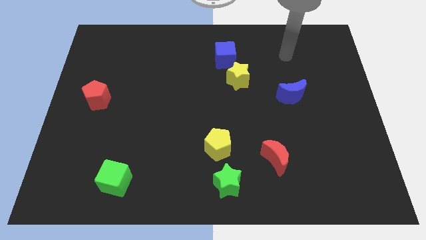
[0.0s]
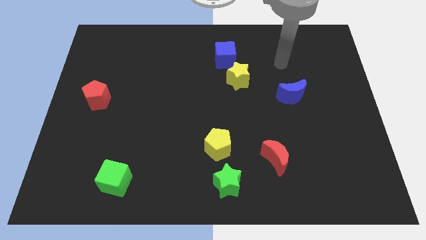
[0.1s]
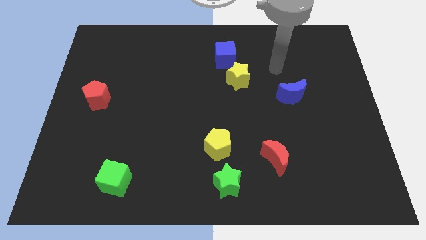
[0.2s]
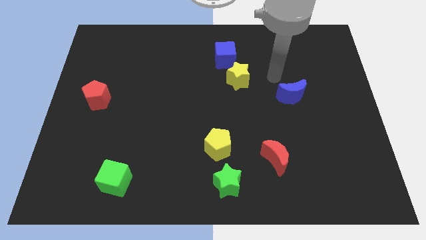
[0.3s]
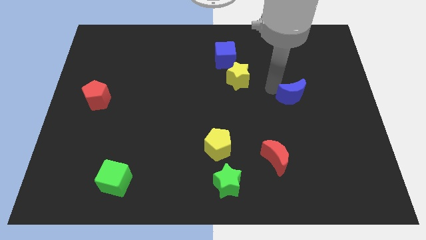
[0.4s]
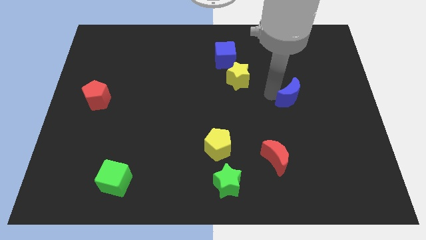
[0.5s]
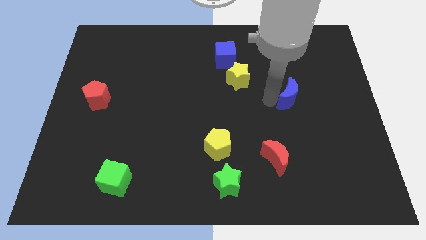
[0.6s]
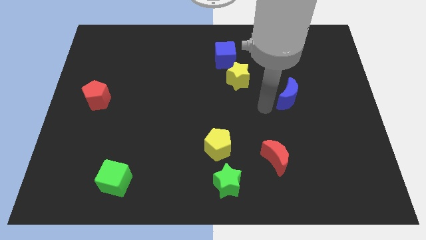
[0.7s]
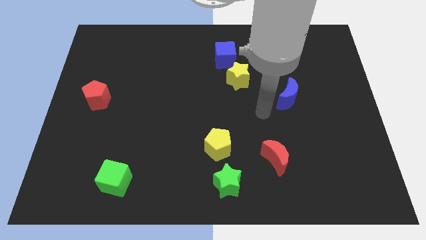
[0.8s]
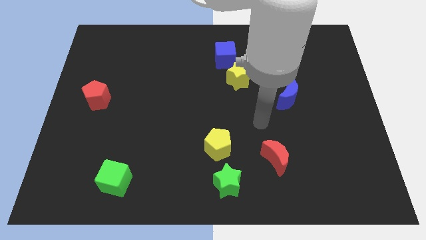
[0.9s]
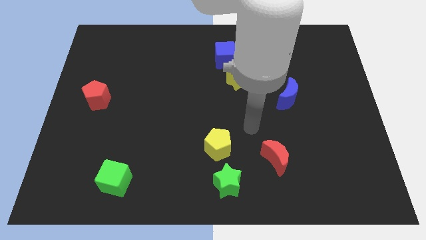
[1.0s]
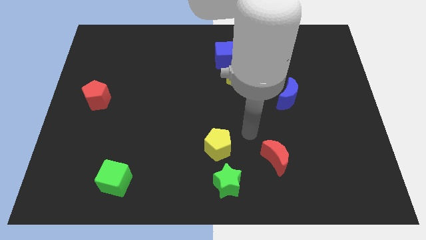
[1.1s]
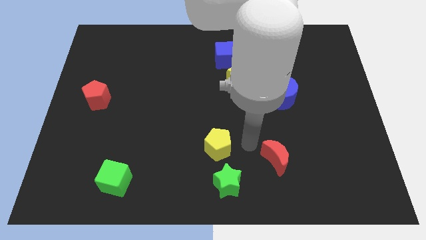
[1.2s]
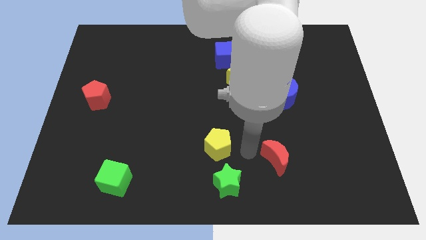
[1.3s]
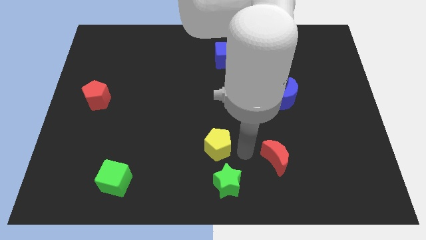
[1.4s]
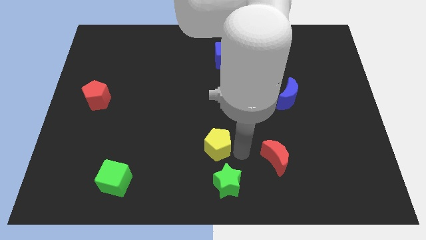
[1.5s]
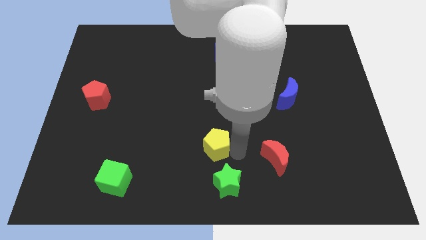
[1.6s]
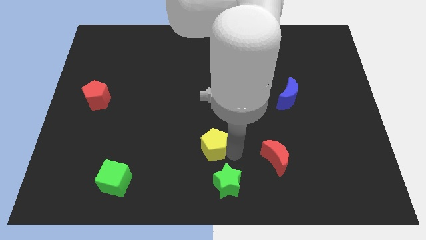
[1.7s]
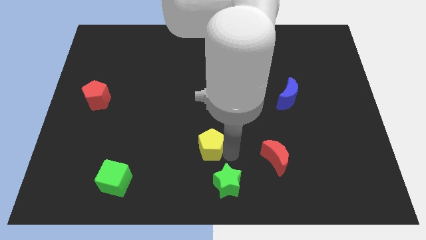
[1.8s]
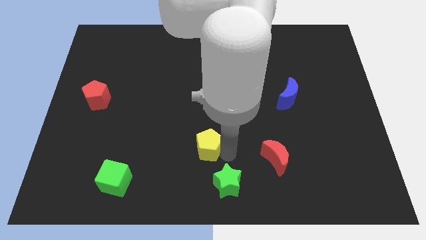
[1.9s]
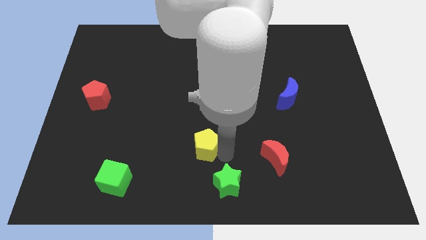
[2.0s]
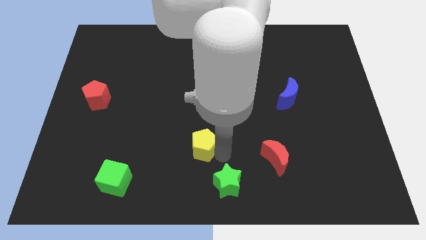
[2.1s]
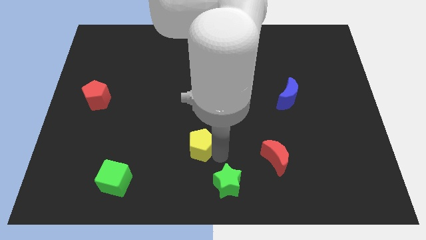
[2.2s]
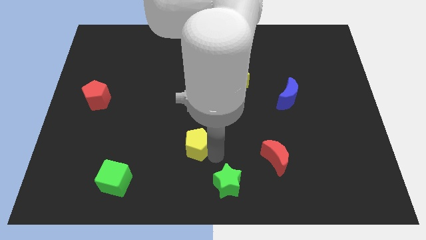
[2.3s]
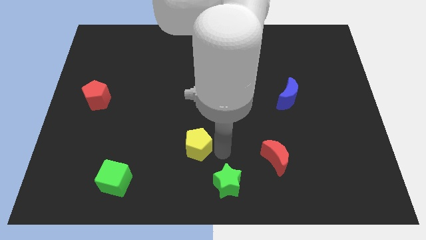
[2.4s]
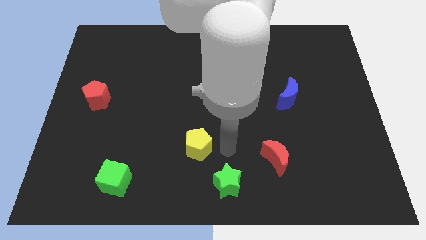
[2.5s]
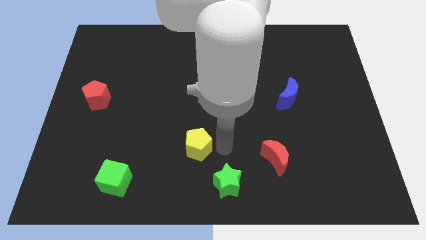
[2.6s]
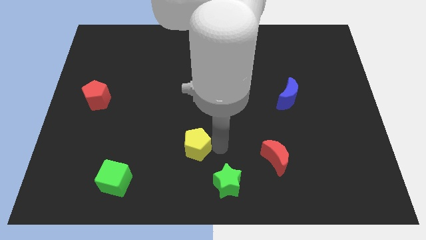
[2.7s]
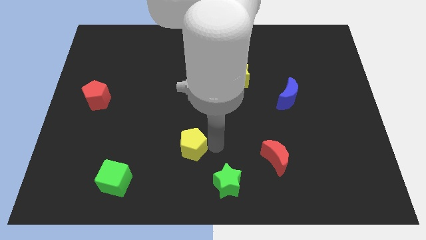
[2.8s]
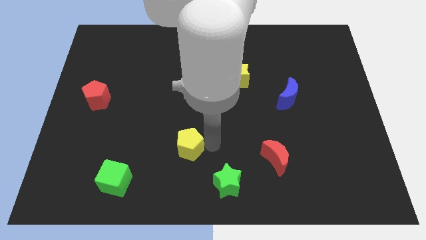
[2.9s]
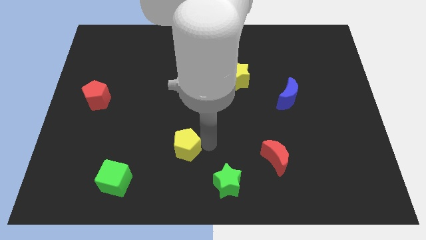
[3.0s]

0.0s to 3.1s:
slightly move the yellow pentagon left

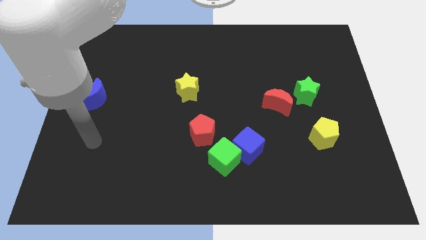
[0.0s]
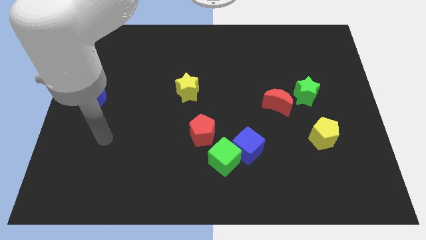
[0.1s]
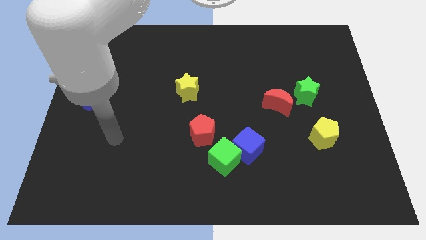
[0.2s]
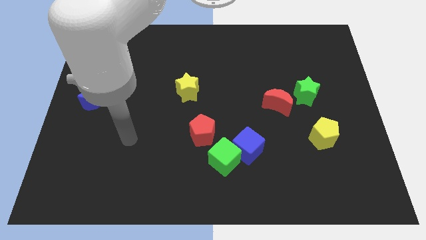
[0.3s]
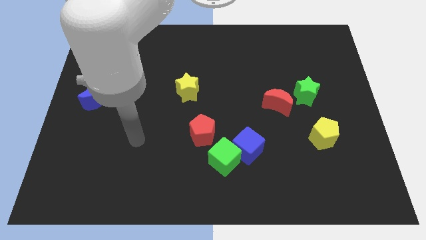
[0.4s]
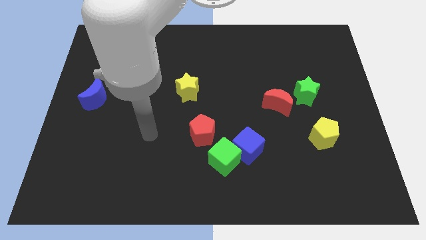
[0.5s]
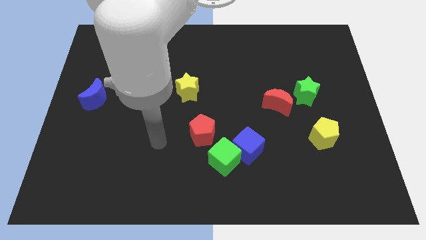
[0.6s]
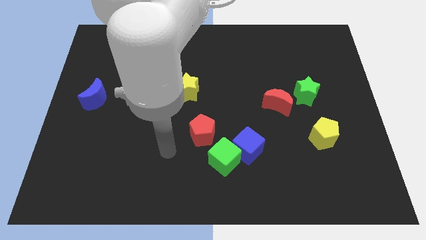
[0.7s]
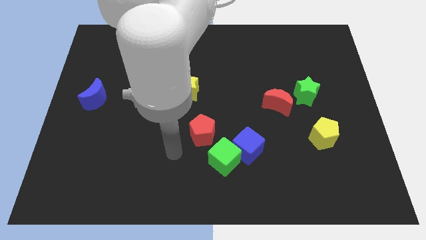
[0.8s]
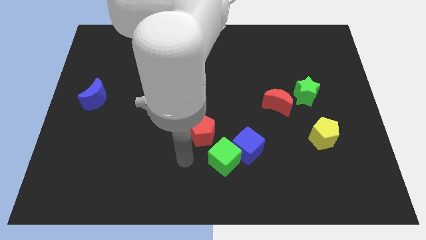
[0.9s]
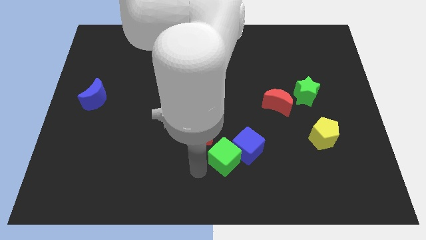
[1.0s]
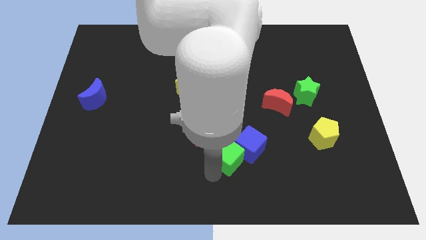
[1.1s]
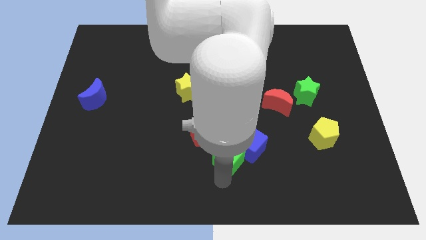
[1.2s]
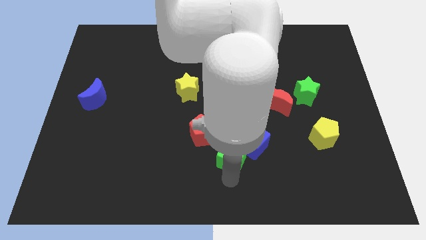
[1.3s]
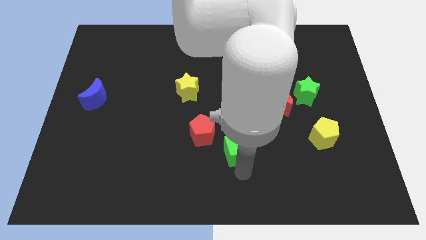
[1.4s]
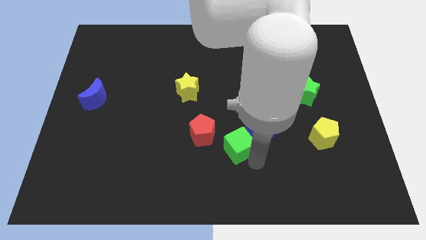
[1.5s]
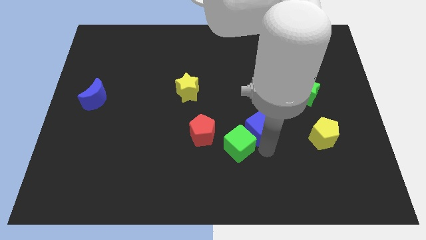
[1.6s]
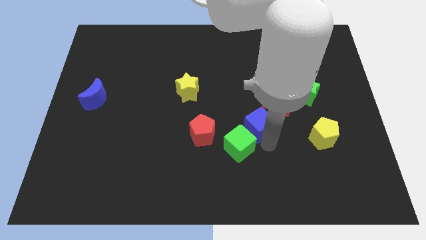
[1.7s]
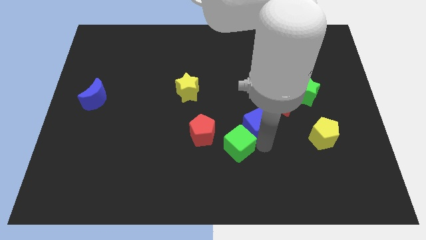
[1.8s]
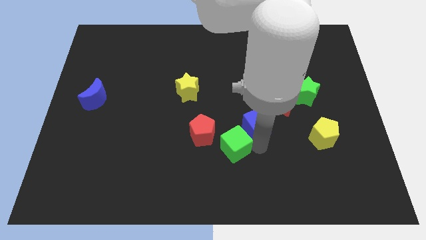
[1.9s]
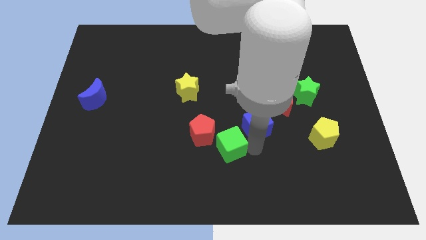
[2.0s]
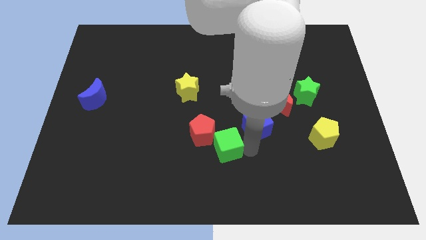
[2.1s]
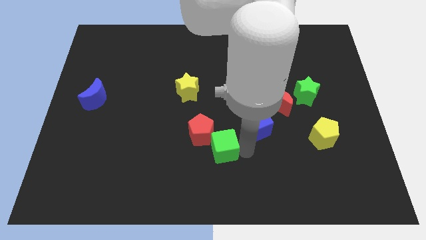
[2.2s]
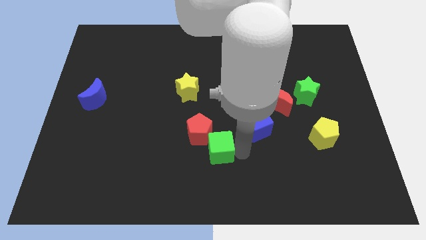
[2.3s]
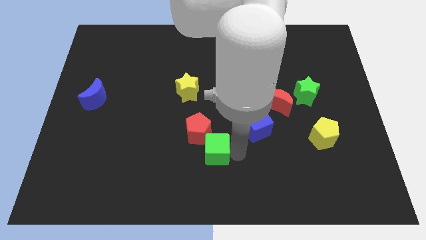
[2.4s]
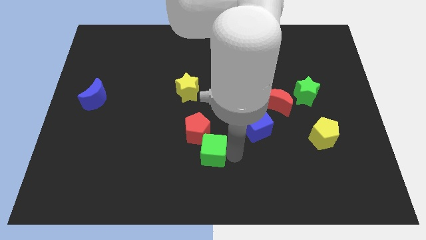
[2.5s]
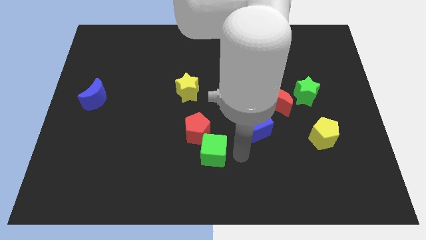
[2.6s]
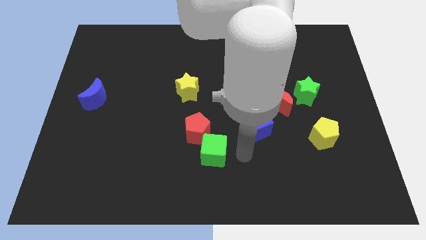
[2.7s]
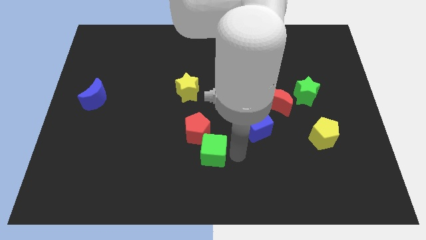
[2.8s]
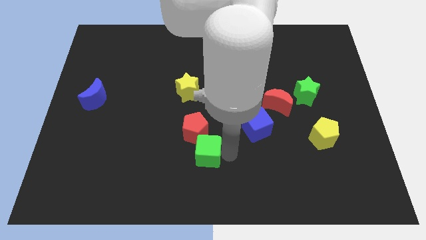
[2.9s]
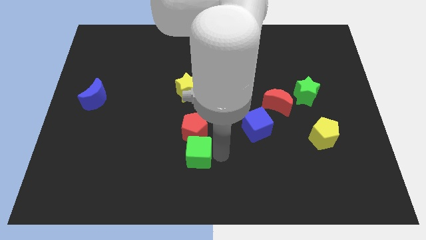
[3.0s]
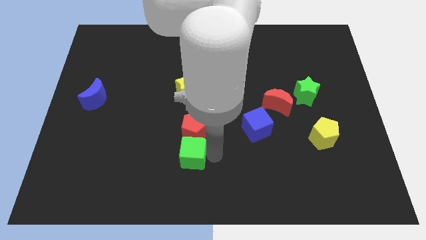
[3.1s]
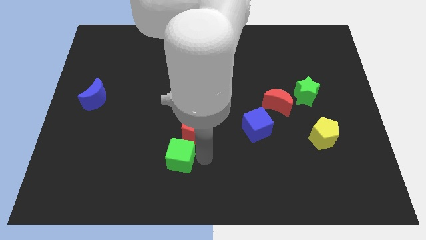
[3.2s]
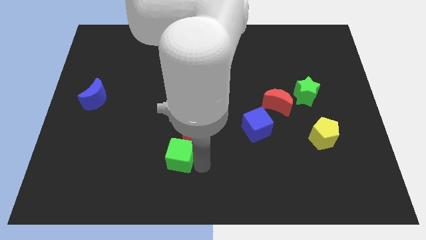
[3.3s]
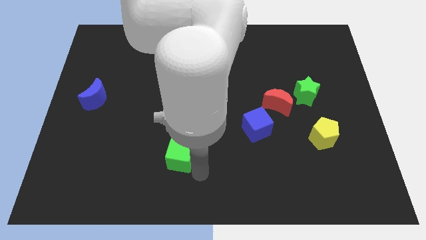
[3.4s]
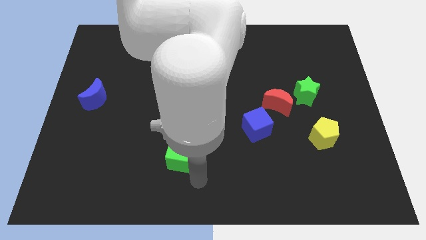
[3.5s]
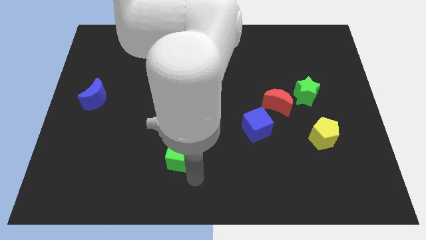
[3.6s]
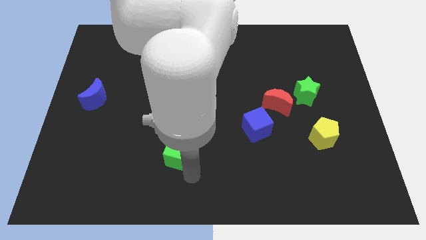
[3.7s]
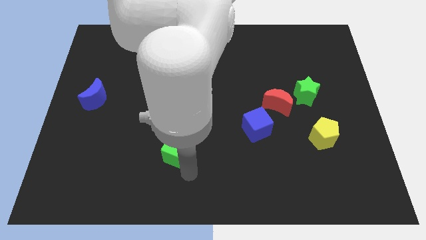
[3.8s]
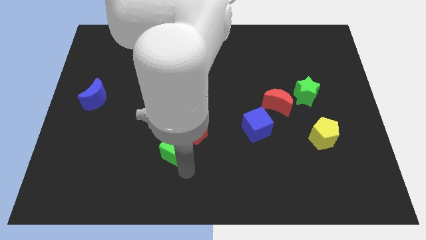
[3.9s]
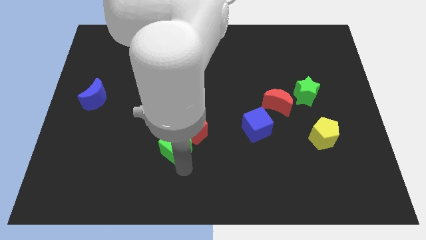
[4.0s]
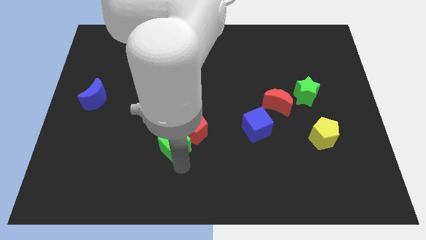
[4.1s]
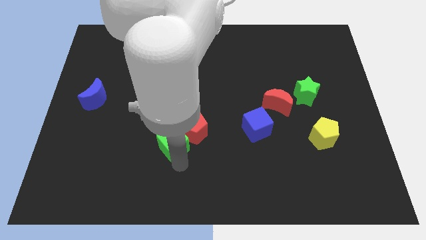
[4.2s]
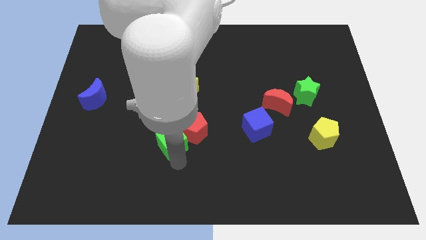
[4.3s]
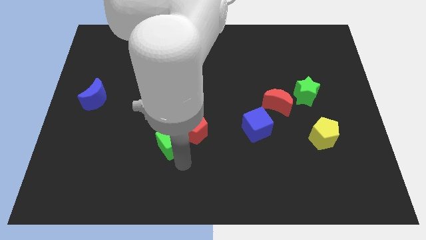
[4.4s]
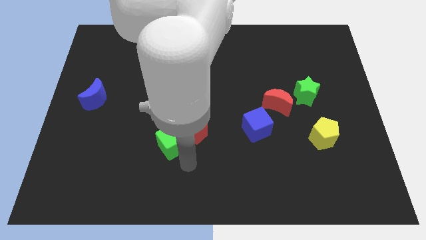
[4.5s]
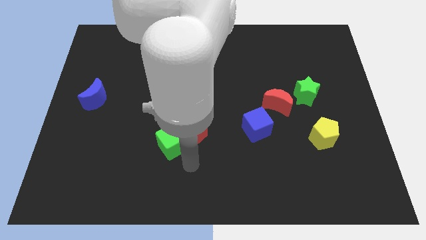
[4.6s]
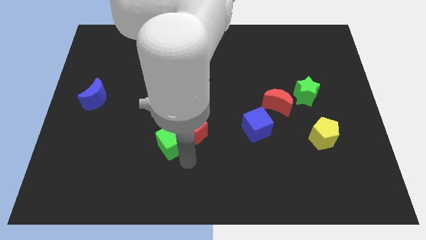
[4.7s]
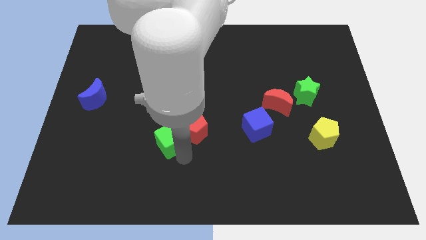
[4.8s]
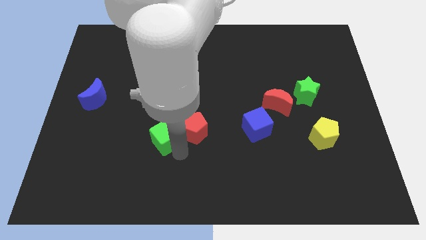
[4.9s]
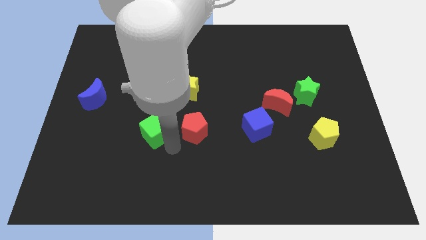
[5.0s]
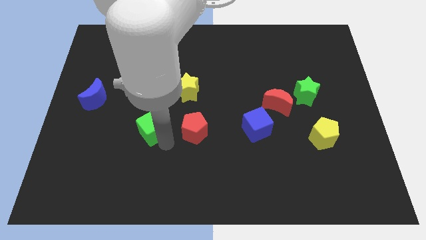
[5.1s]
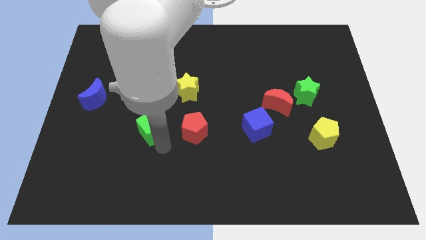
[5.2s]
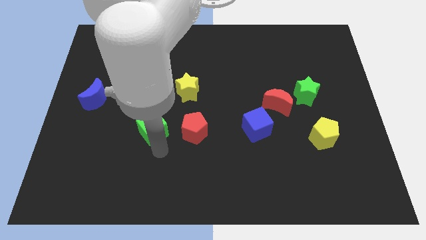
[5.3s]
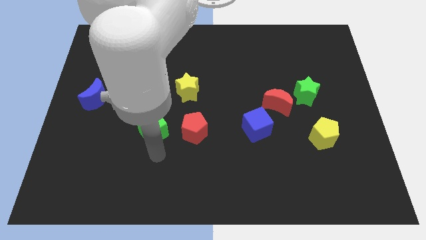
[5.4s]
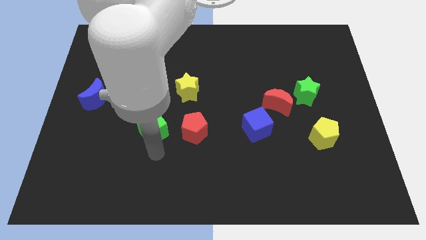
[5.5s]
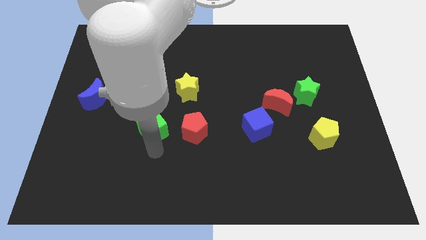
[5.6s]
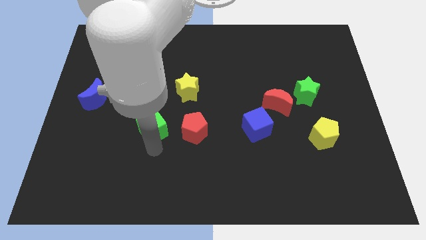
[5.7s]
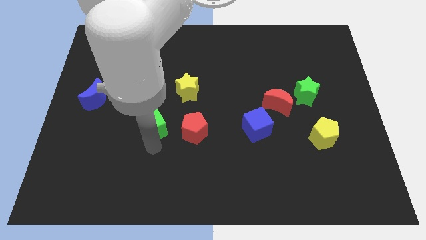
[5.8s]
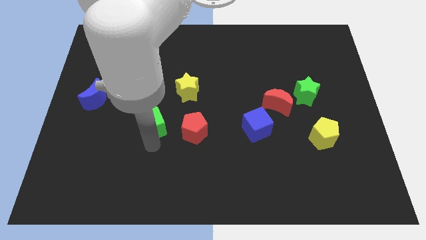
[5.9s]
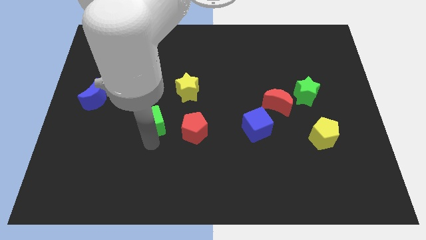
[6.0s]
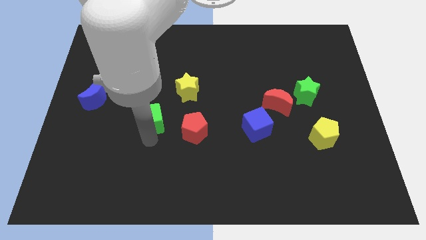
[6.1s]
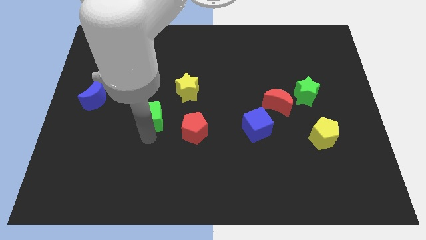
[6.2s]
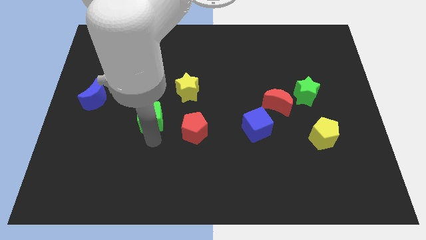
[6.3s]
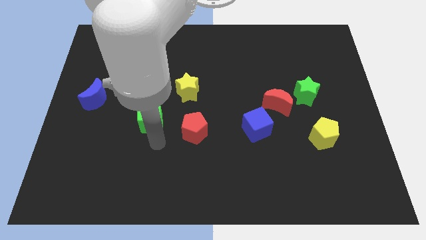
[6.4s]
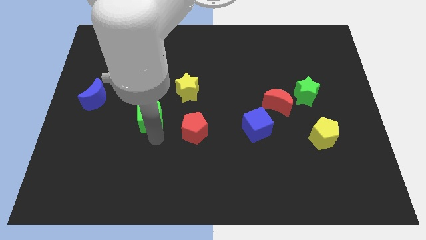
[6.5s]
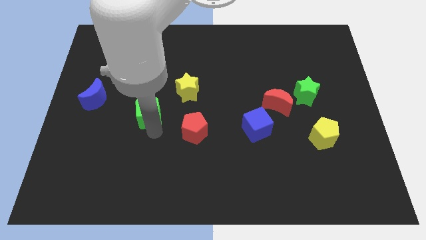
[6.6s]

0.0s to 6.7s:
slide the green cube upwards and then left
